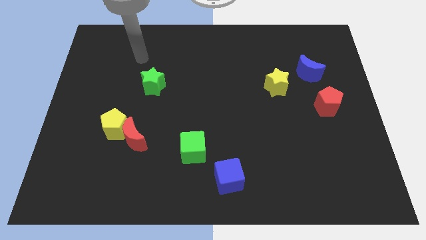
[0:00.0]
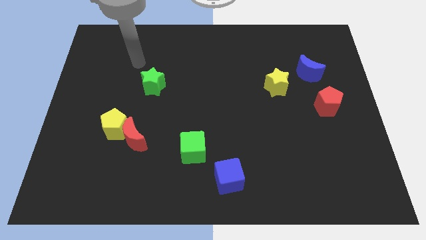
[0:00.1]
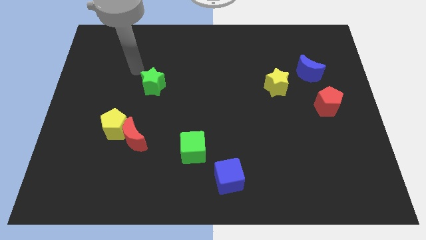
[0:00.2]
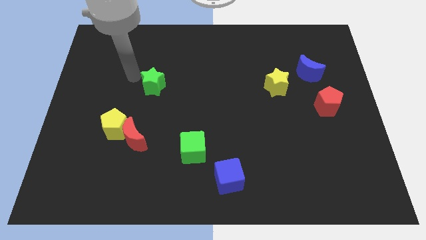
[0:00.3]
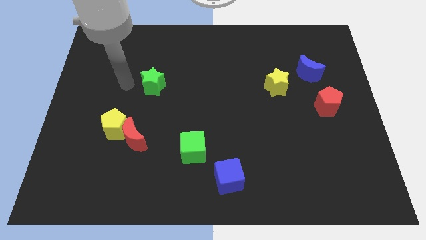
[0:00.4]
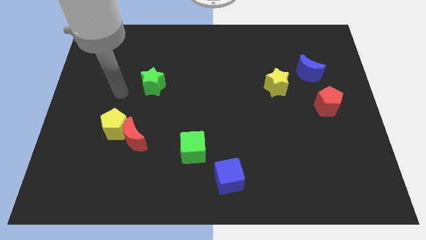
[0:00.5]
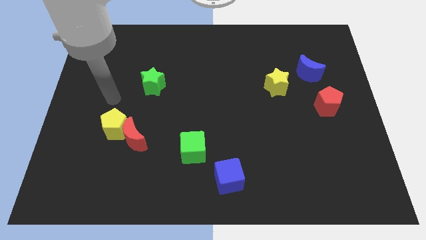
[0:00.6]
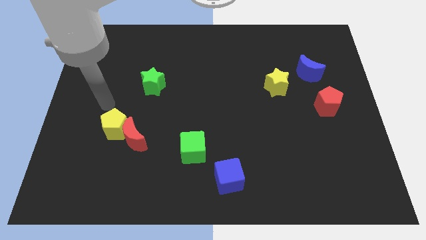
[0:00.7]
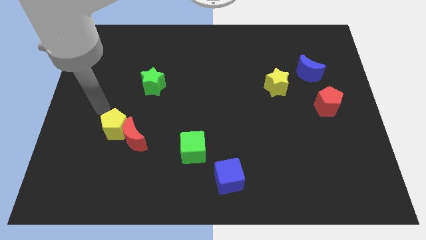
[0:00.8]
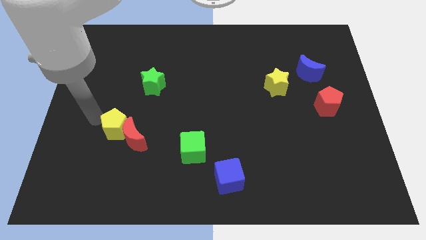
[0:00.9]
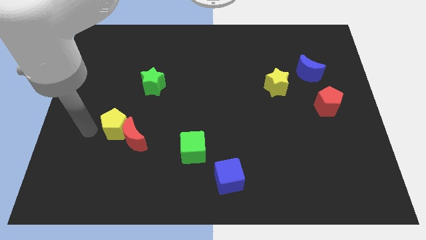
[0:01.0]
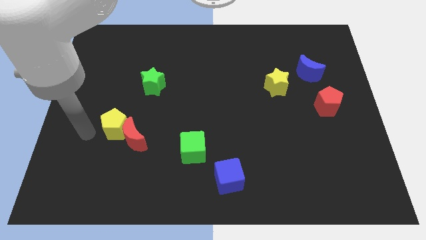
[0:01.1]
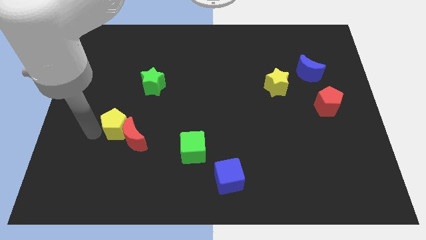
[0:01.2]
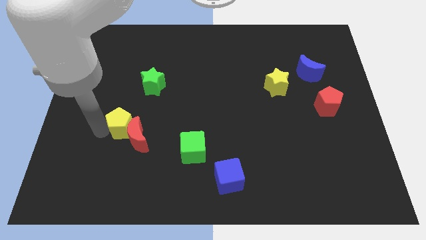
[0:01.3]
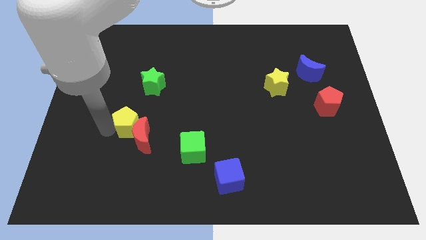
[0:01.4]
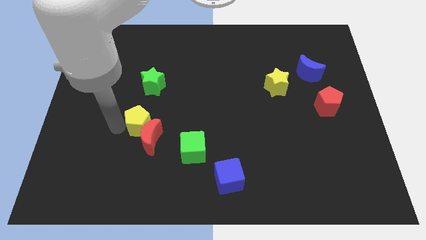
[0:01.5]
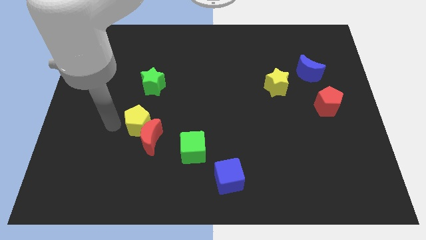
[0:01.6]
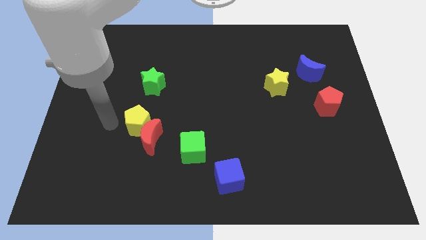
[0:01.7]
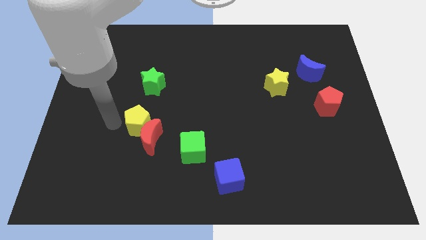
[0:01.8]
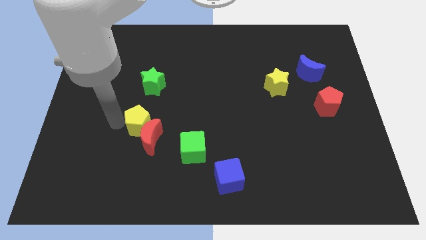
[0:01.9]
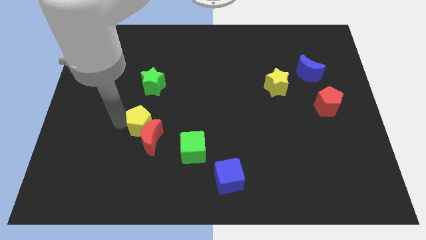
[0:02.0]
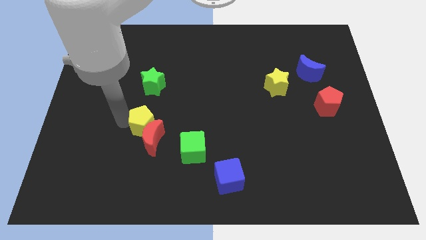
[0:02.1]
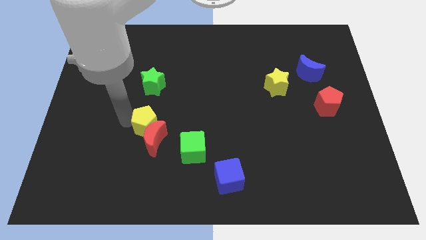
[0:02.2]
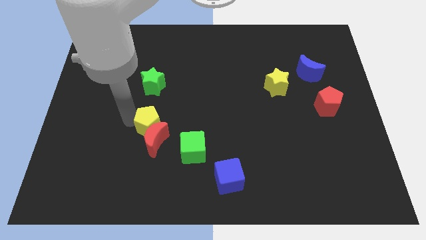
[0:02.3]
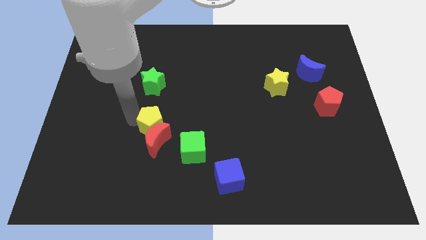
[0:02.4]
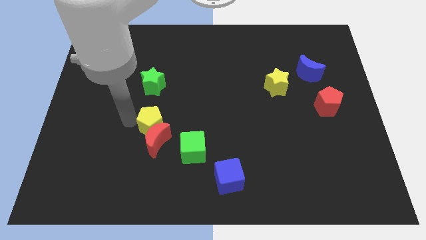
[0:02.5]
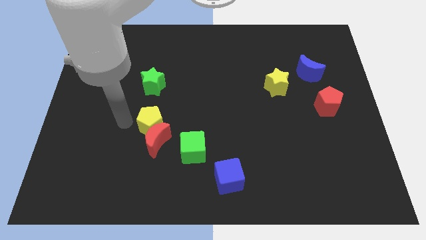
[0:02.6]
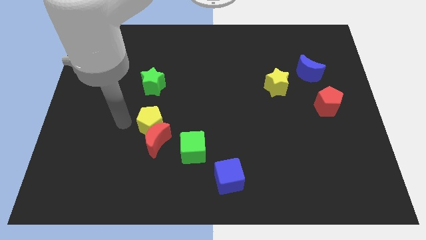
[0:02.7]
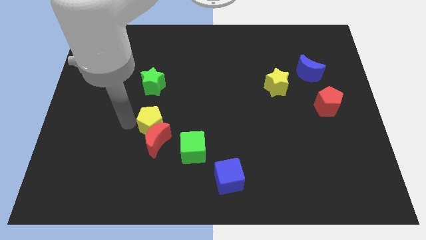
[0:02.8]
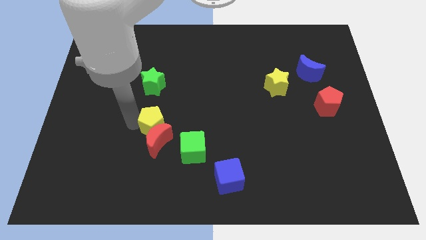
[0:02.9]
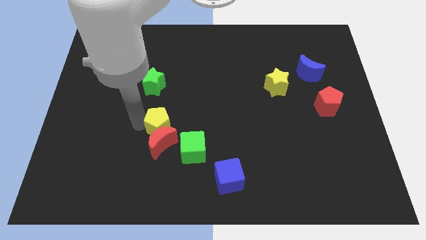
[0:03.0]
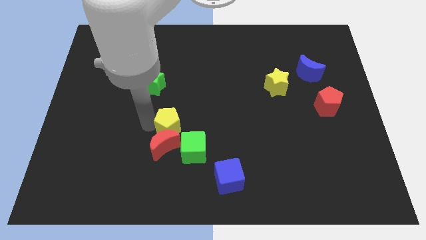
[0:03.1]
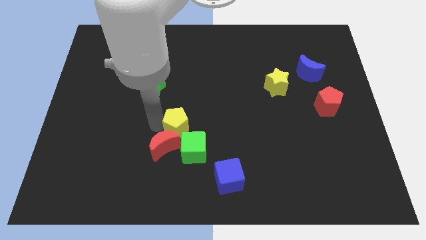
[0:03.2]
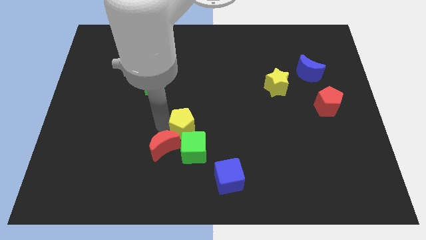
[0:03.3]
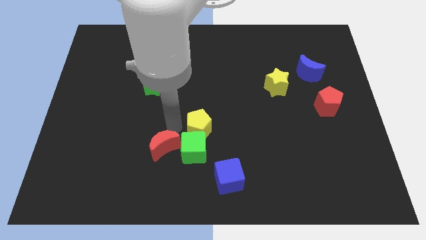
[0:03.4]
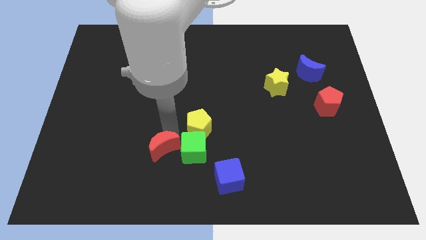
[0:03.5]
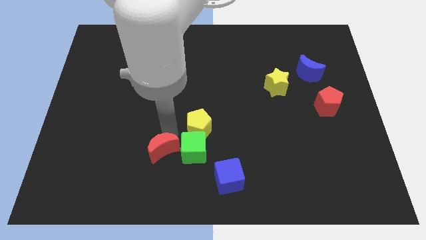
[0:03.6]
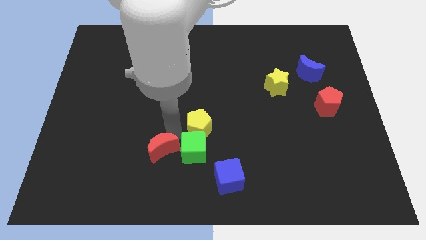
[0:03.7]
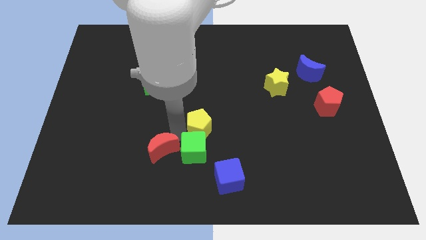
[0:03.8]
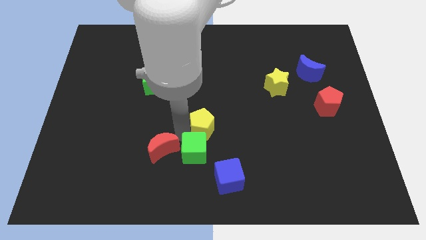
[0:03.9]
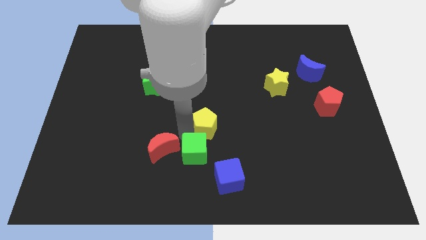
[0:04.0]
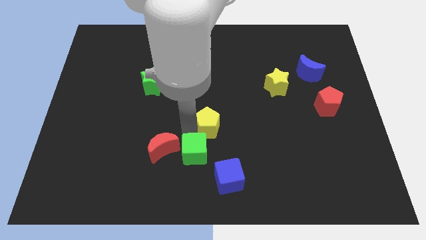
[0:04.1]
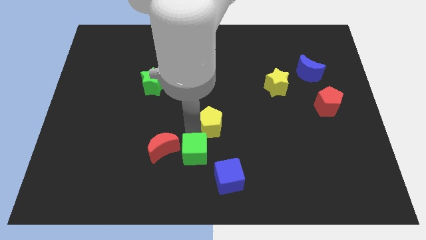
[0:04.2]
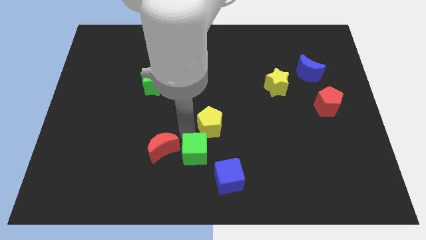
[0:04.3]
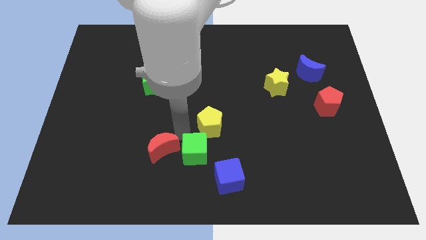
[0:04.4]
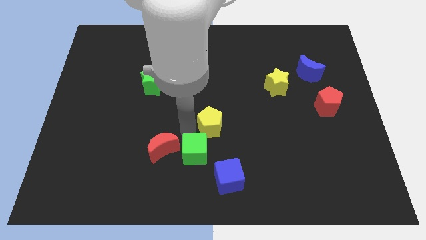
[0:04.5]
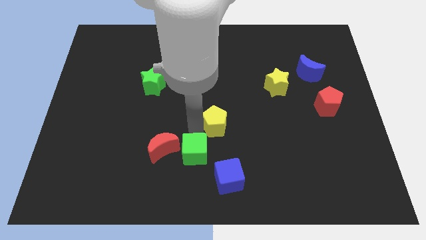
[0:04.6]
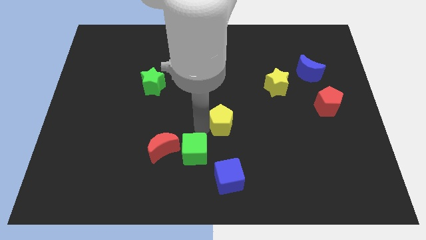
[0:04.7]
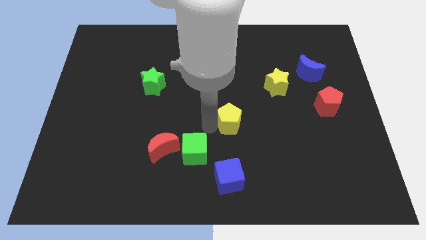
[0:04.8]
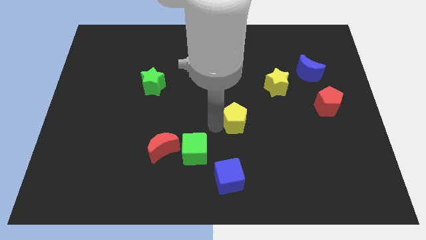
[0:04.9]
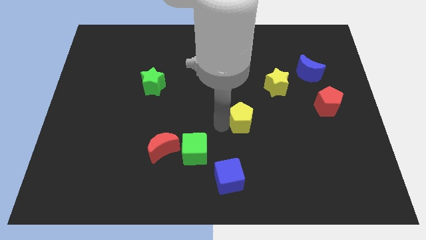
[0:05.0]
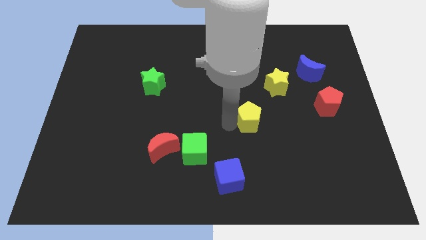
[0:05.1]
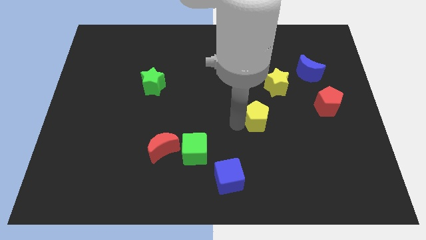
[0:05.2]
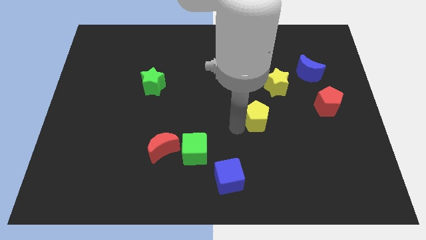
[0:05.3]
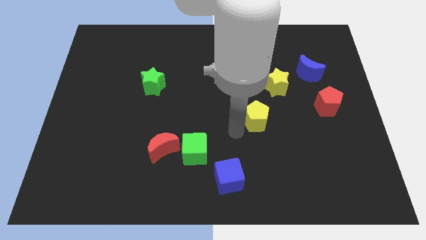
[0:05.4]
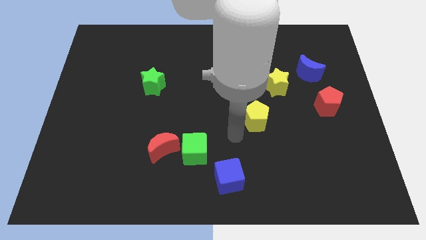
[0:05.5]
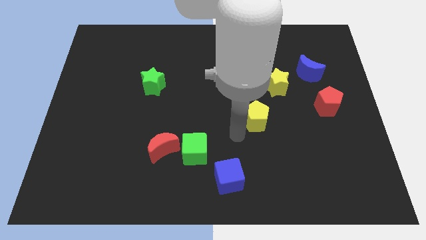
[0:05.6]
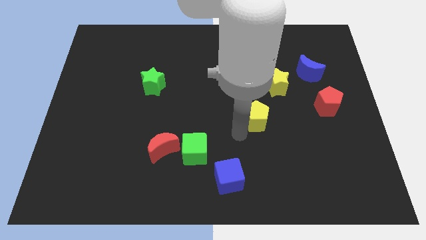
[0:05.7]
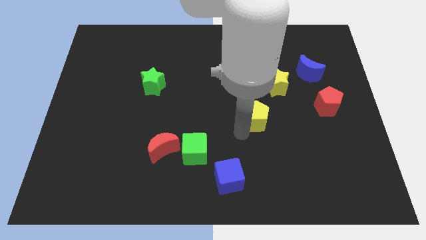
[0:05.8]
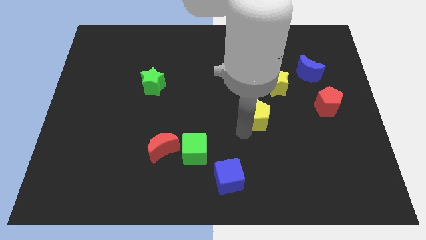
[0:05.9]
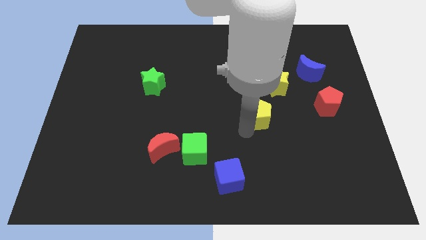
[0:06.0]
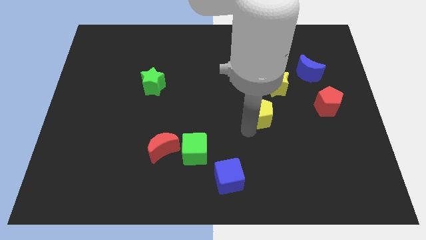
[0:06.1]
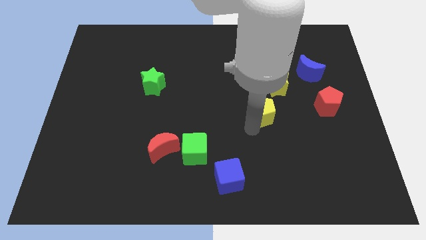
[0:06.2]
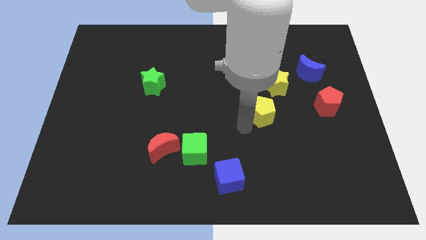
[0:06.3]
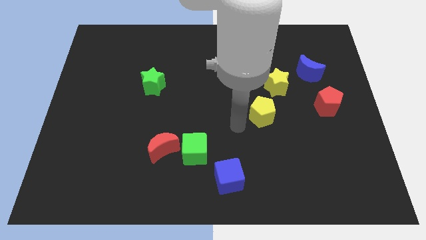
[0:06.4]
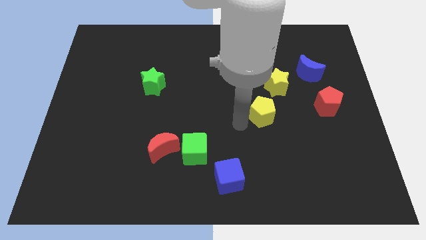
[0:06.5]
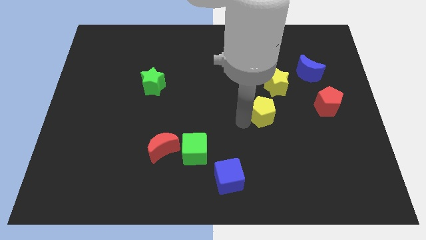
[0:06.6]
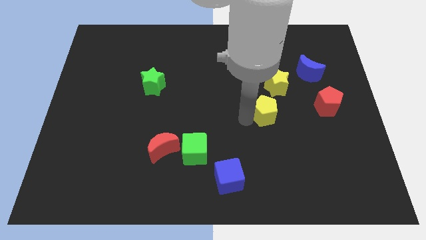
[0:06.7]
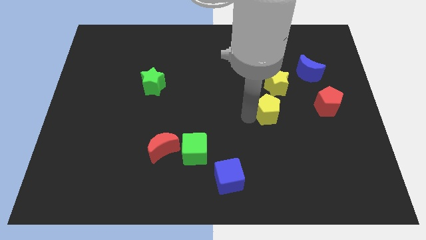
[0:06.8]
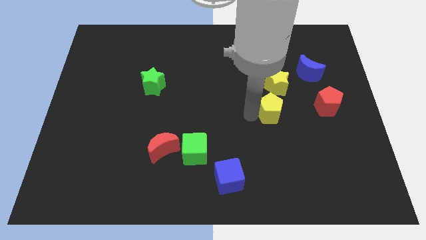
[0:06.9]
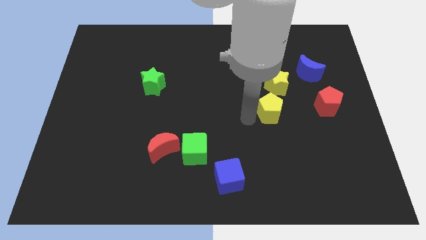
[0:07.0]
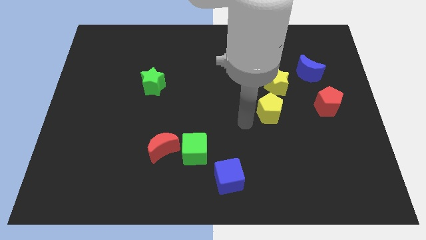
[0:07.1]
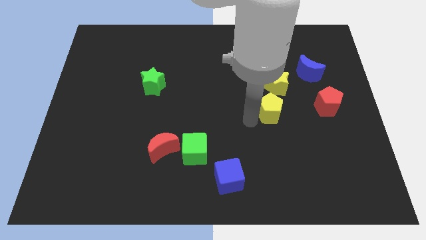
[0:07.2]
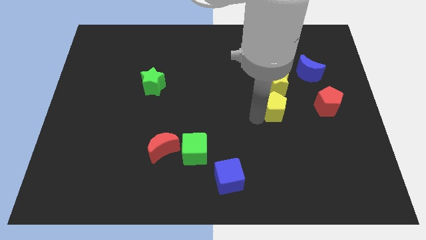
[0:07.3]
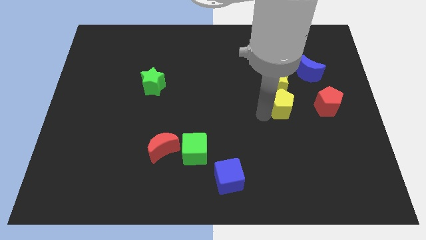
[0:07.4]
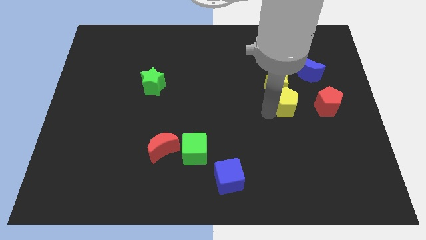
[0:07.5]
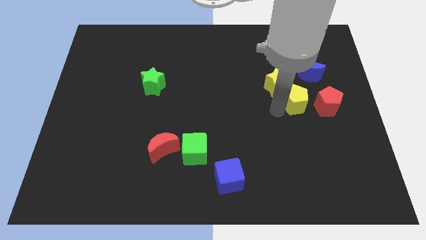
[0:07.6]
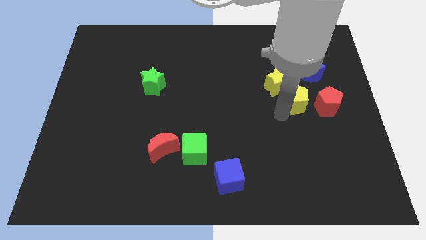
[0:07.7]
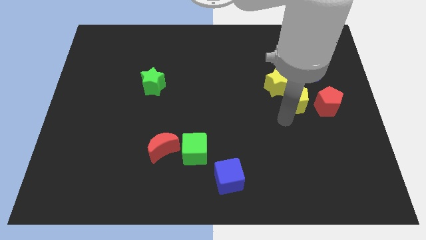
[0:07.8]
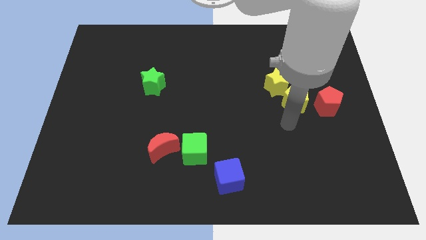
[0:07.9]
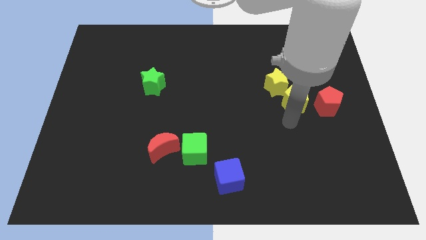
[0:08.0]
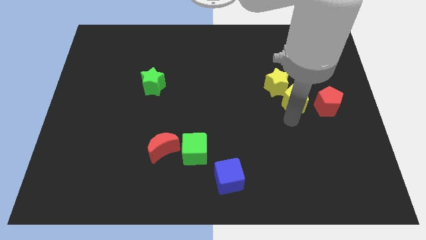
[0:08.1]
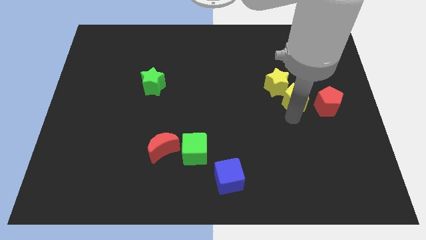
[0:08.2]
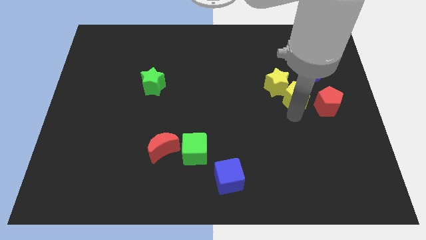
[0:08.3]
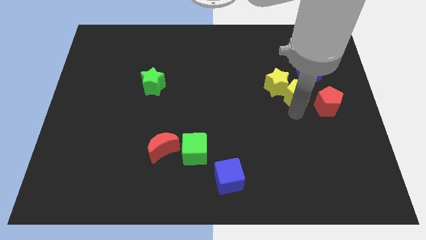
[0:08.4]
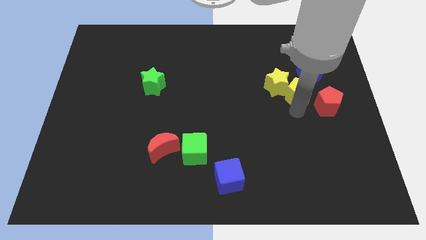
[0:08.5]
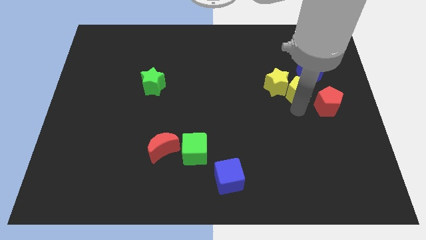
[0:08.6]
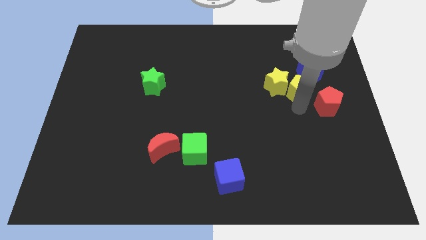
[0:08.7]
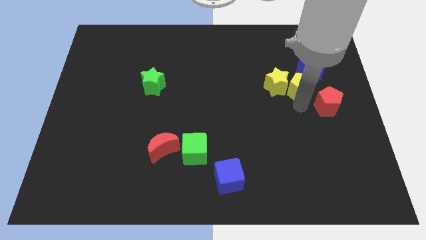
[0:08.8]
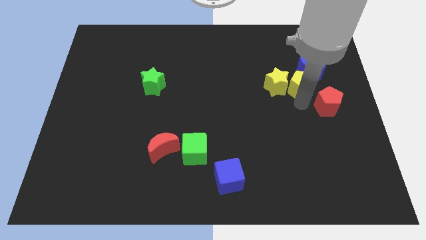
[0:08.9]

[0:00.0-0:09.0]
push the yellow pentagon next to the blue moon
